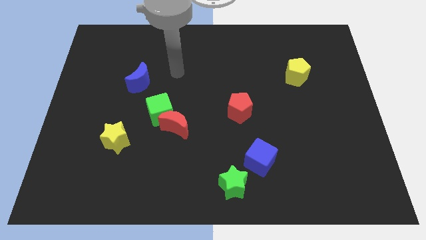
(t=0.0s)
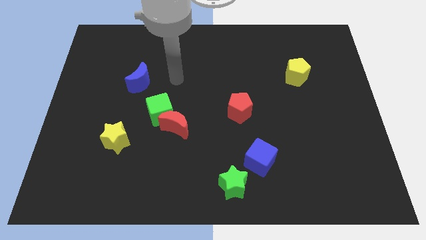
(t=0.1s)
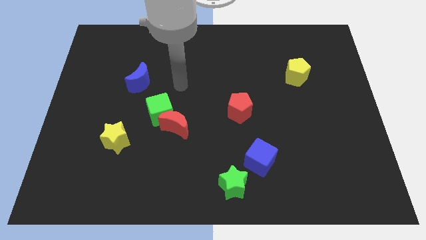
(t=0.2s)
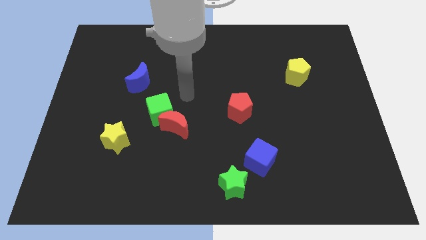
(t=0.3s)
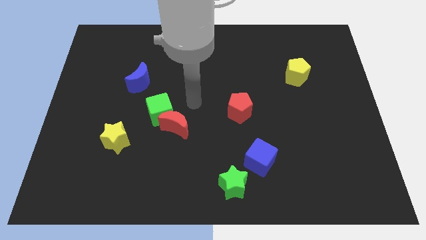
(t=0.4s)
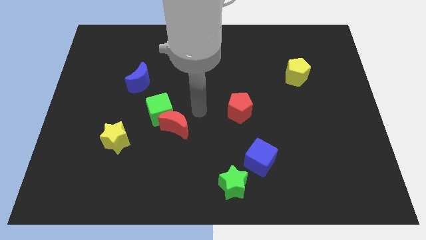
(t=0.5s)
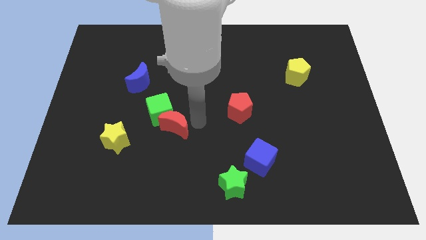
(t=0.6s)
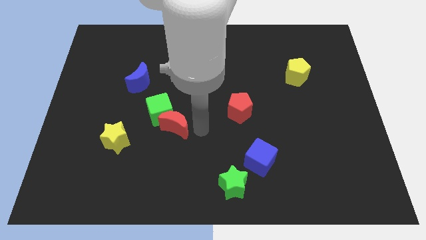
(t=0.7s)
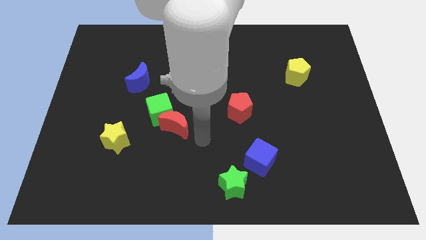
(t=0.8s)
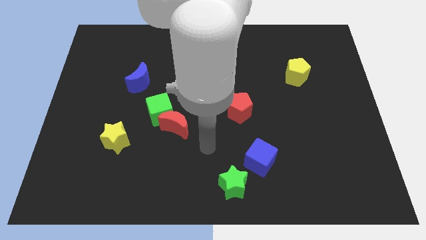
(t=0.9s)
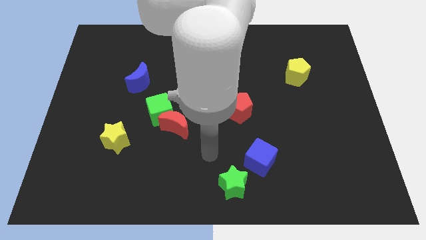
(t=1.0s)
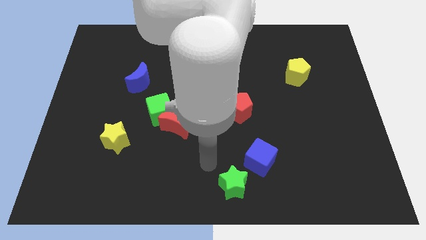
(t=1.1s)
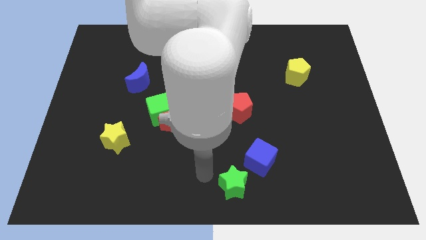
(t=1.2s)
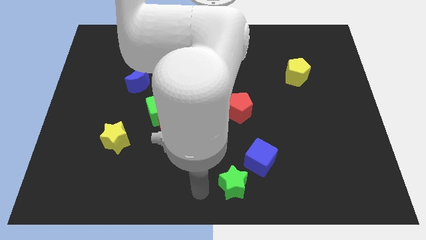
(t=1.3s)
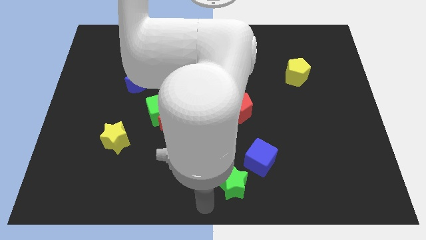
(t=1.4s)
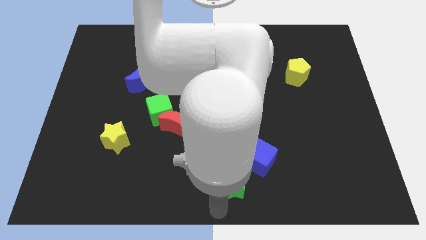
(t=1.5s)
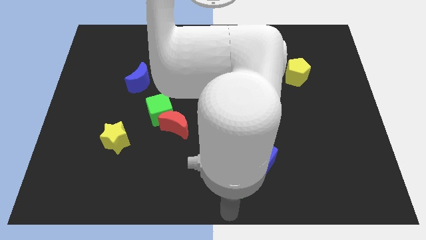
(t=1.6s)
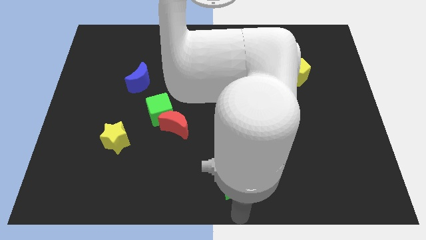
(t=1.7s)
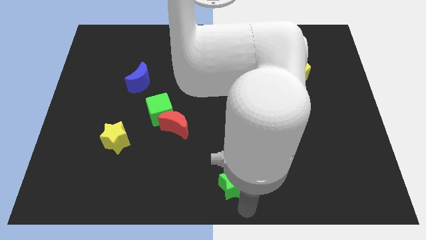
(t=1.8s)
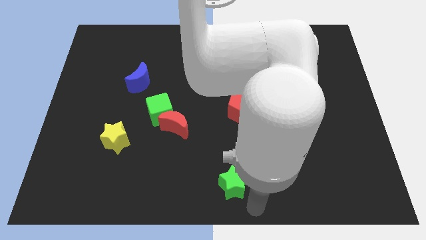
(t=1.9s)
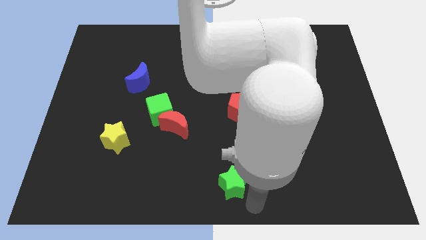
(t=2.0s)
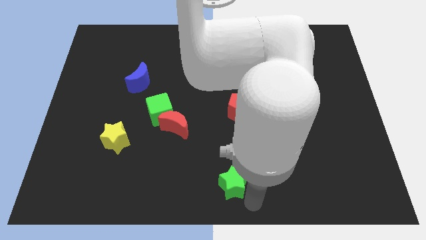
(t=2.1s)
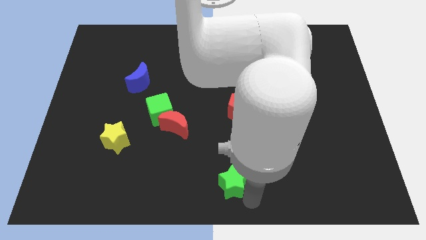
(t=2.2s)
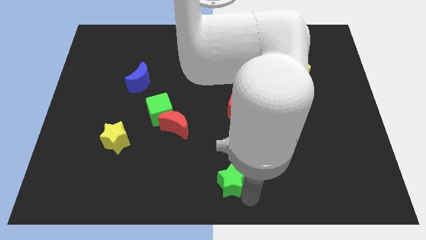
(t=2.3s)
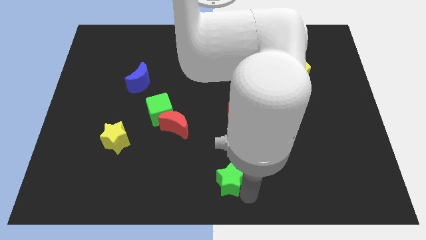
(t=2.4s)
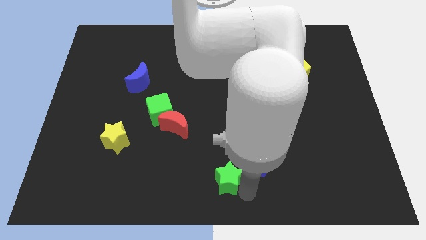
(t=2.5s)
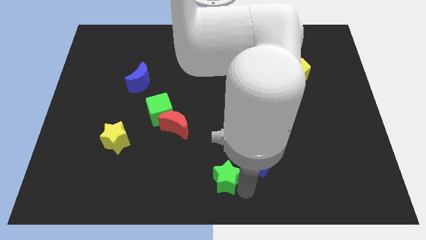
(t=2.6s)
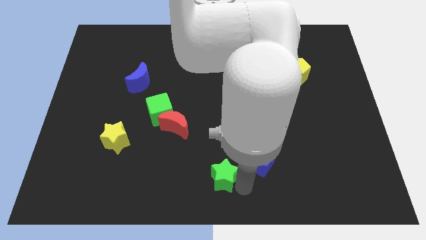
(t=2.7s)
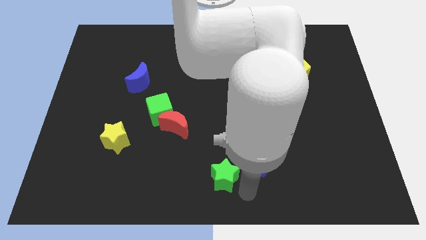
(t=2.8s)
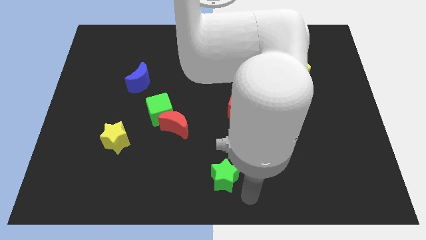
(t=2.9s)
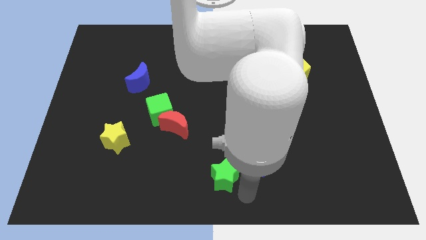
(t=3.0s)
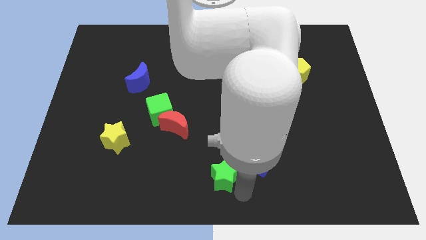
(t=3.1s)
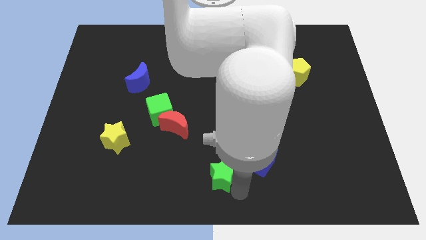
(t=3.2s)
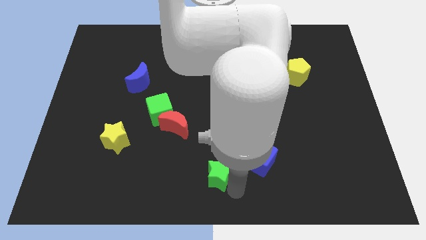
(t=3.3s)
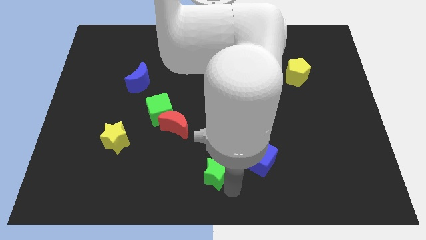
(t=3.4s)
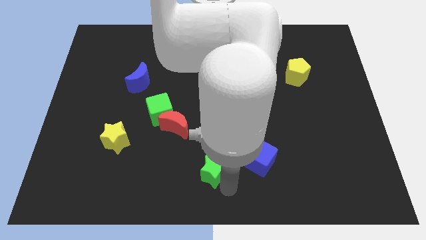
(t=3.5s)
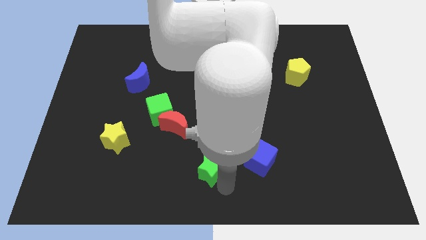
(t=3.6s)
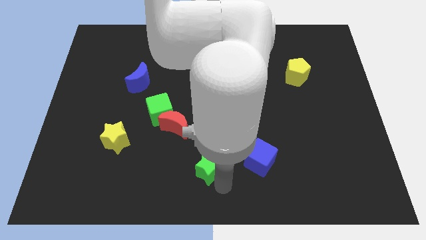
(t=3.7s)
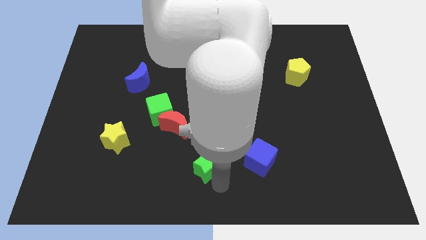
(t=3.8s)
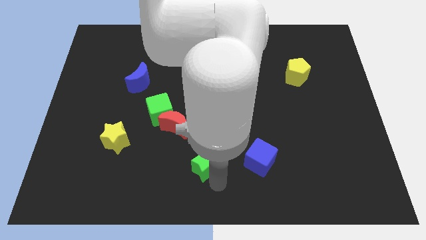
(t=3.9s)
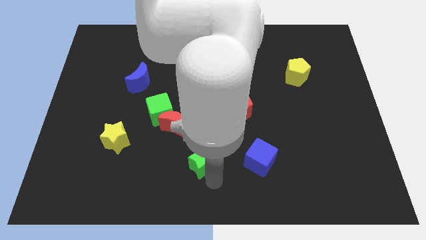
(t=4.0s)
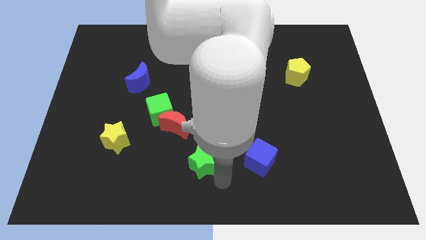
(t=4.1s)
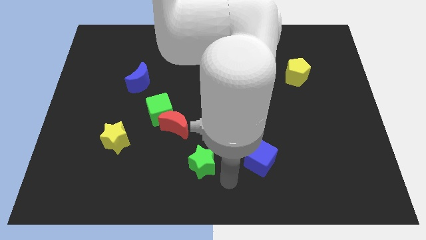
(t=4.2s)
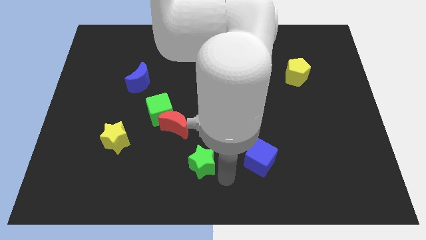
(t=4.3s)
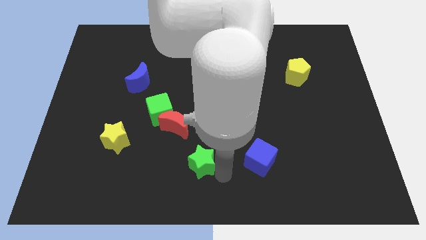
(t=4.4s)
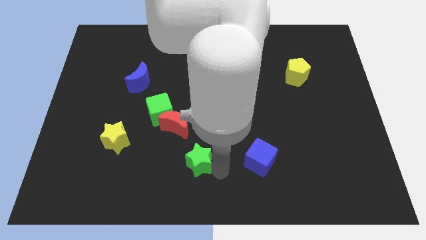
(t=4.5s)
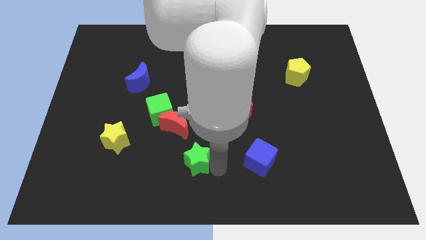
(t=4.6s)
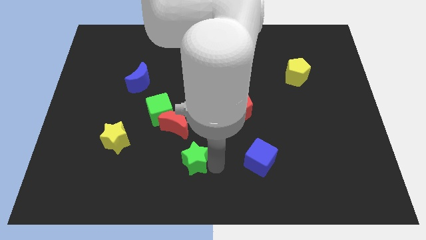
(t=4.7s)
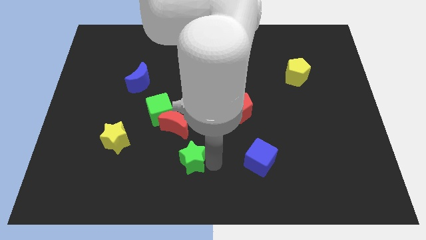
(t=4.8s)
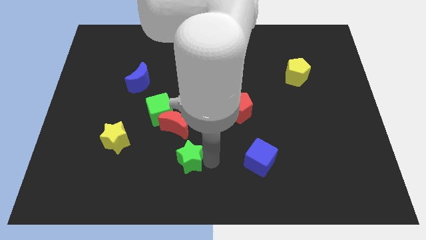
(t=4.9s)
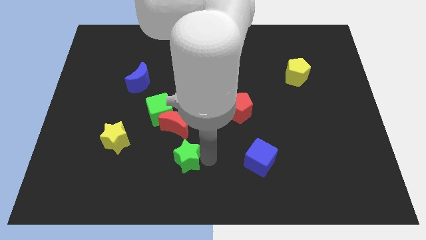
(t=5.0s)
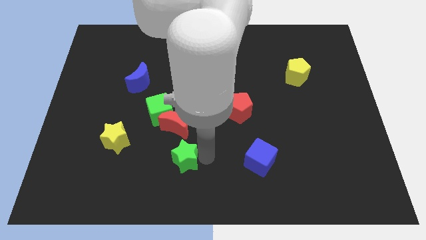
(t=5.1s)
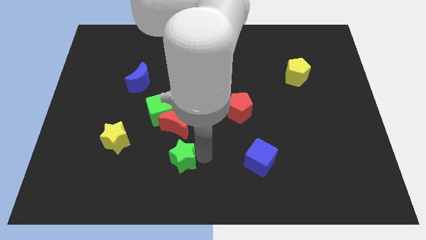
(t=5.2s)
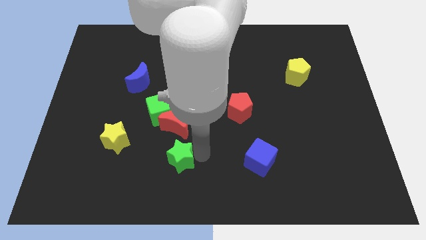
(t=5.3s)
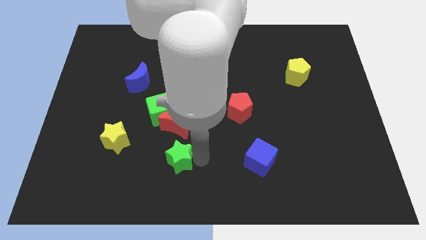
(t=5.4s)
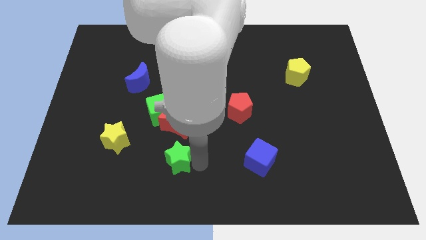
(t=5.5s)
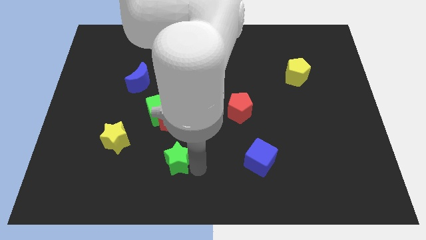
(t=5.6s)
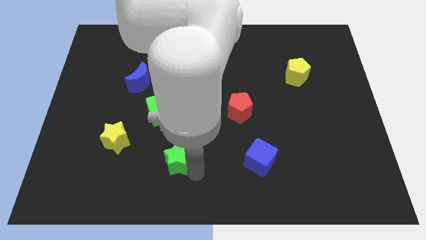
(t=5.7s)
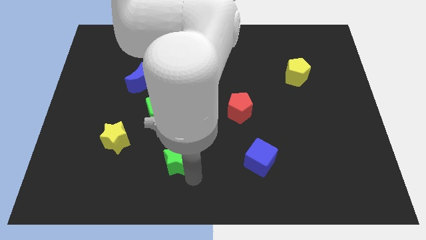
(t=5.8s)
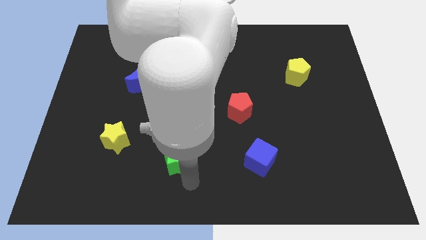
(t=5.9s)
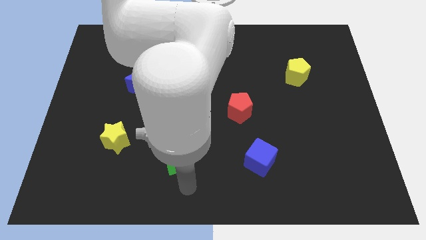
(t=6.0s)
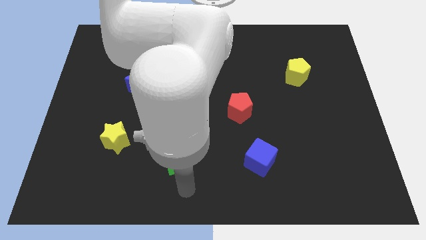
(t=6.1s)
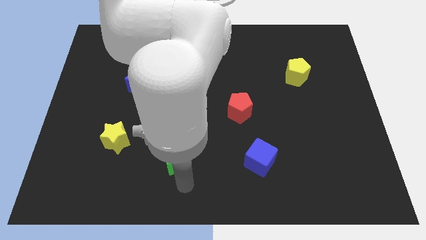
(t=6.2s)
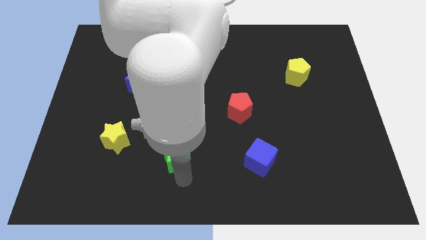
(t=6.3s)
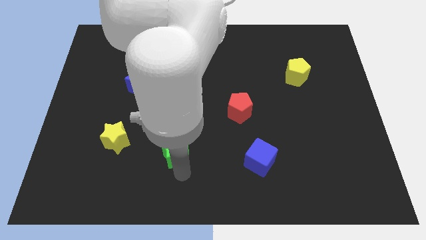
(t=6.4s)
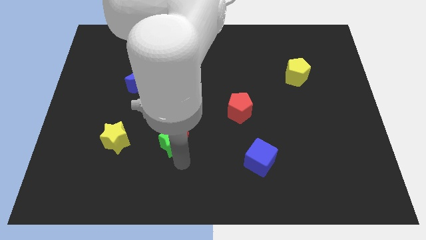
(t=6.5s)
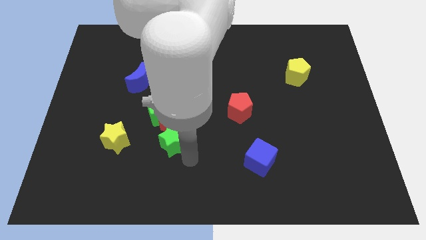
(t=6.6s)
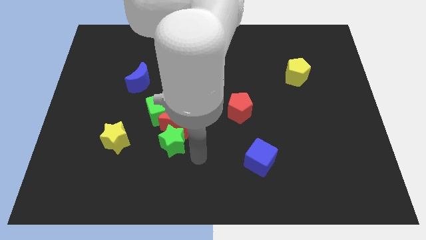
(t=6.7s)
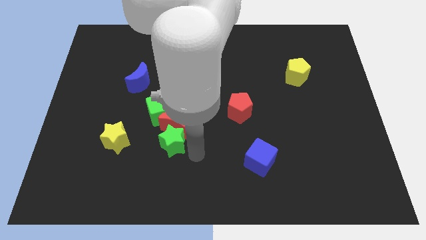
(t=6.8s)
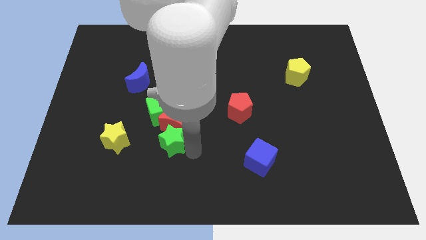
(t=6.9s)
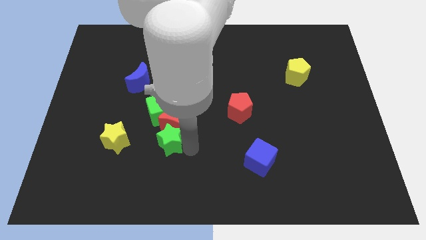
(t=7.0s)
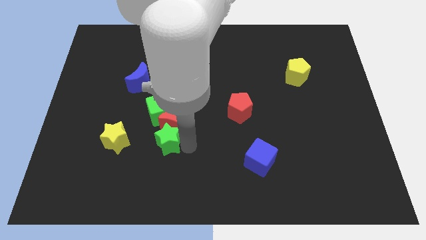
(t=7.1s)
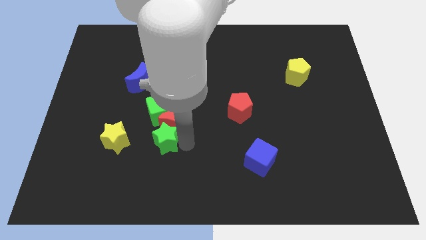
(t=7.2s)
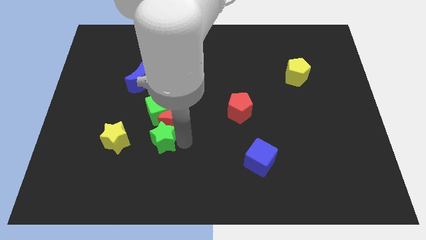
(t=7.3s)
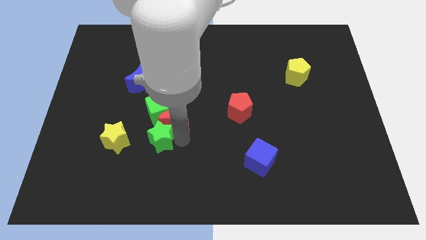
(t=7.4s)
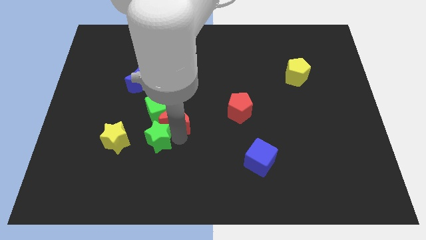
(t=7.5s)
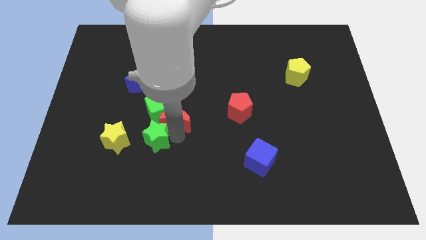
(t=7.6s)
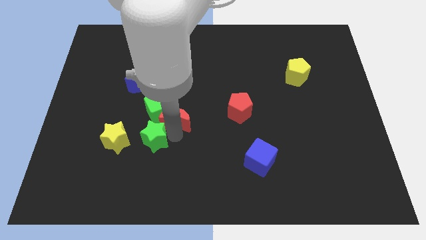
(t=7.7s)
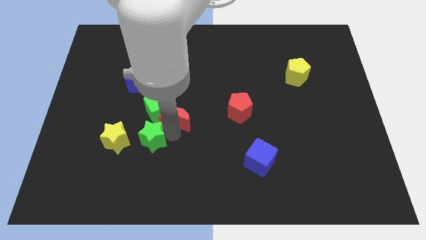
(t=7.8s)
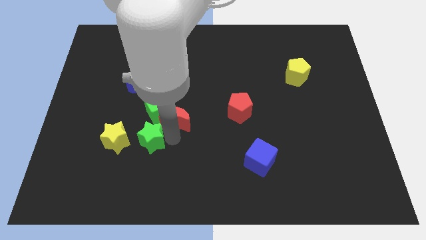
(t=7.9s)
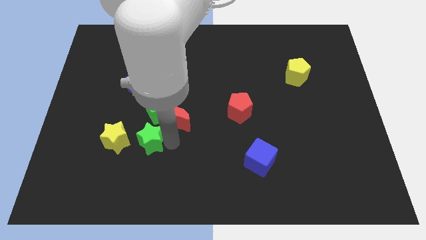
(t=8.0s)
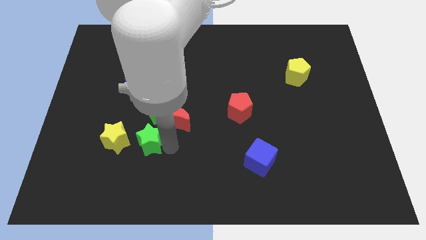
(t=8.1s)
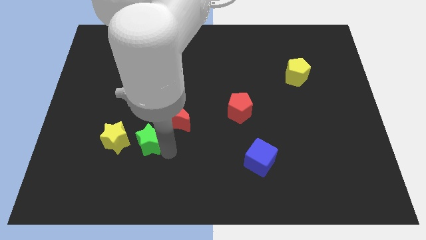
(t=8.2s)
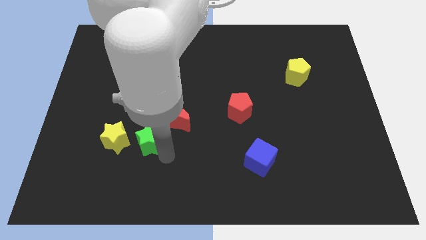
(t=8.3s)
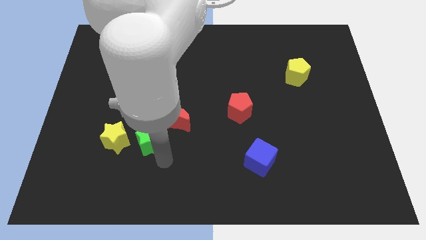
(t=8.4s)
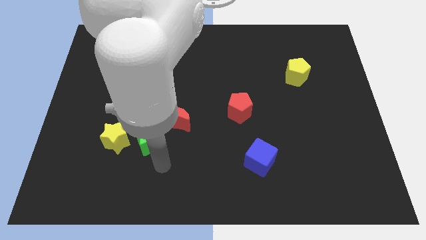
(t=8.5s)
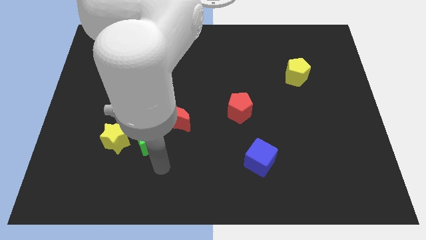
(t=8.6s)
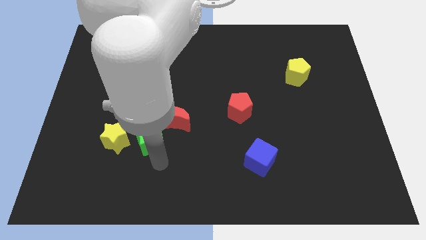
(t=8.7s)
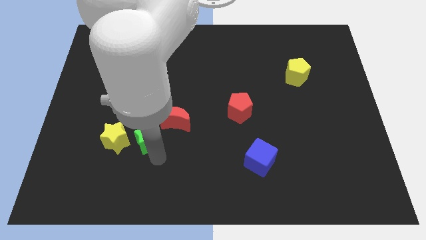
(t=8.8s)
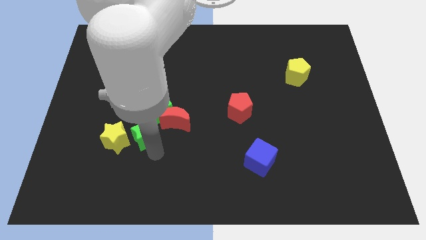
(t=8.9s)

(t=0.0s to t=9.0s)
move the green star up and left
